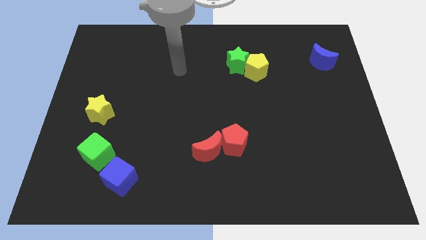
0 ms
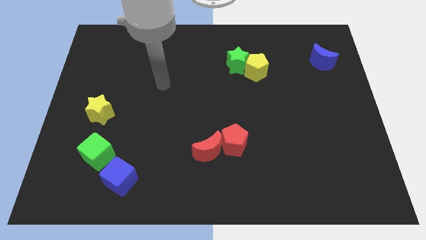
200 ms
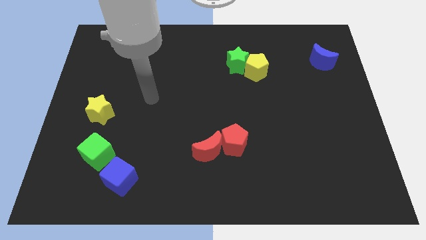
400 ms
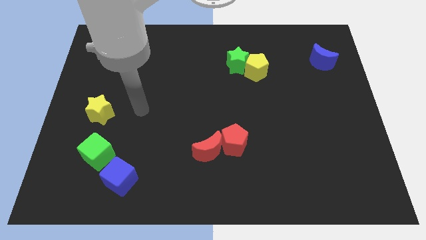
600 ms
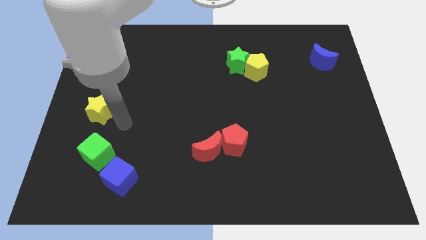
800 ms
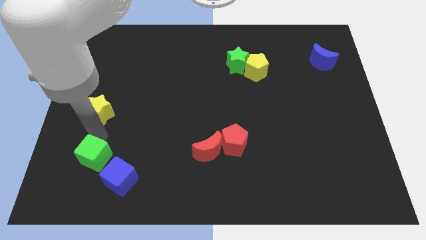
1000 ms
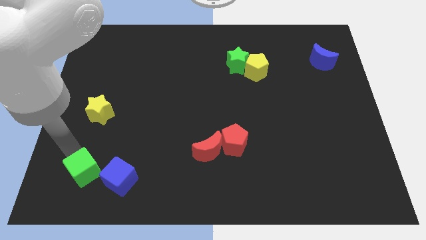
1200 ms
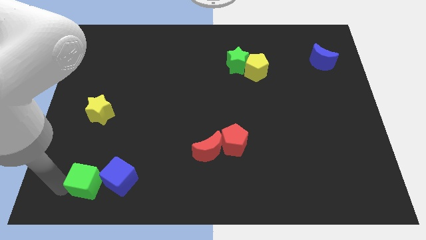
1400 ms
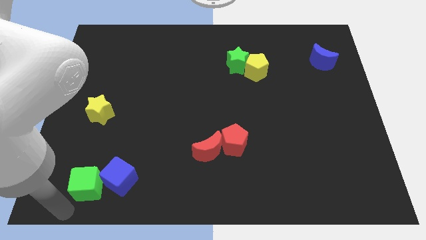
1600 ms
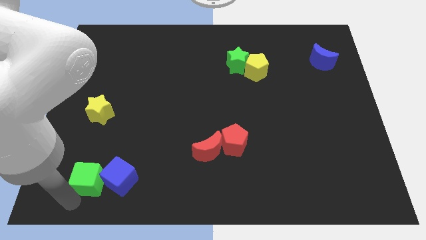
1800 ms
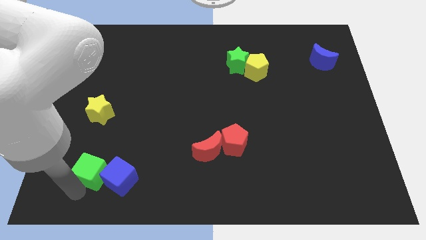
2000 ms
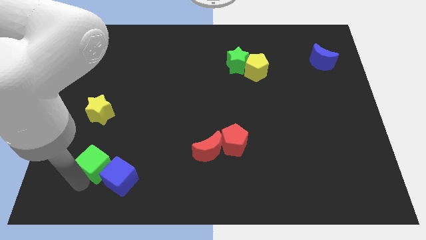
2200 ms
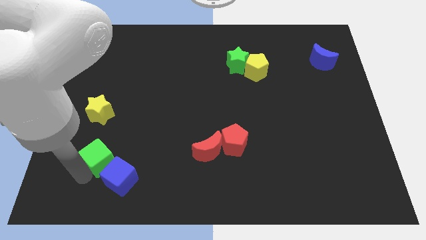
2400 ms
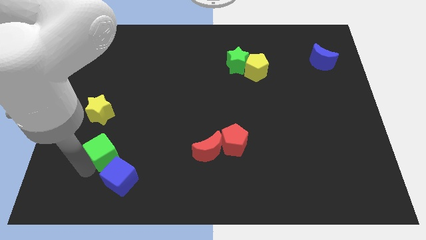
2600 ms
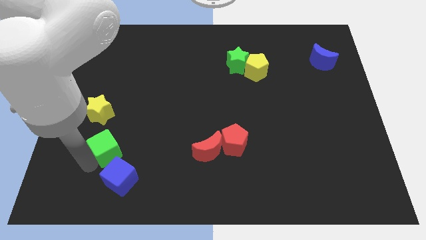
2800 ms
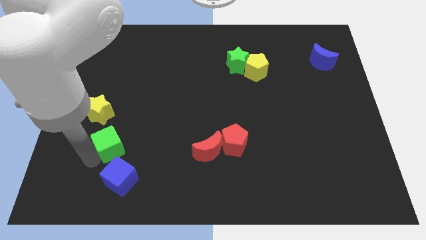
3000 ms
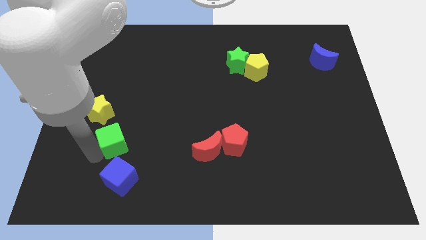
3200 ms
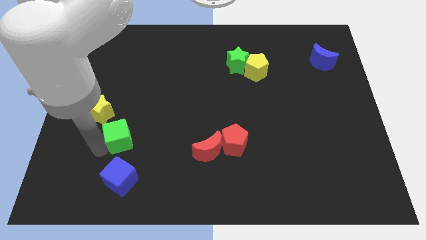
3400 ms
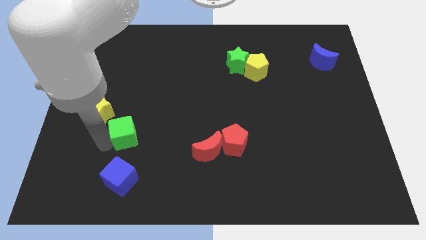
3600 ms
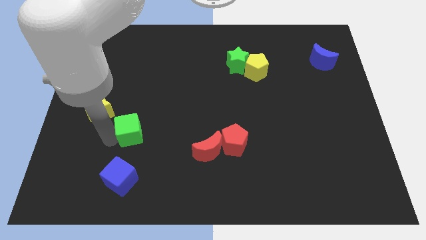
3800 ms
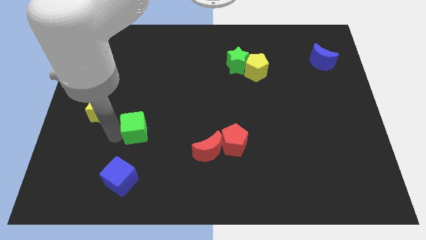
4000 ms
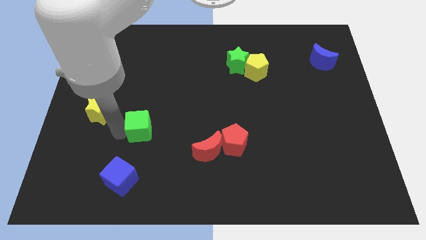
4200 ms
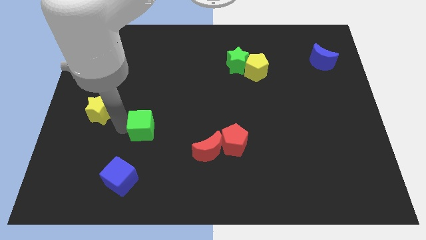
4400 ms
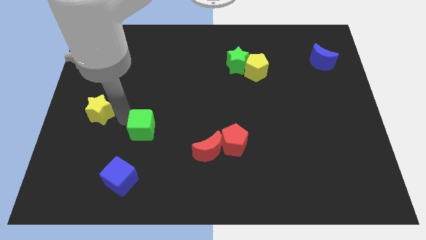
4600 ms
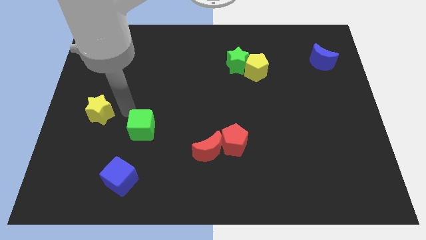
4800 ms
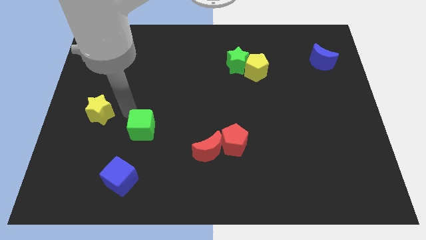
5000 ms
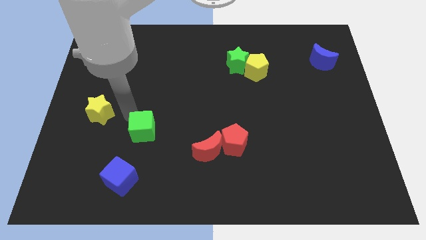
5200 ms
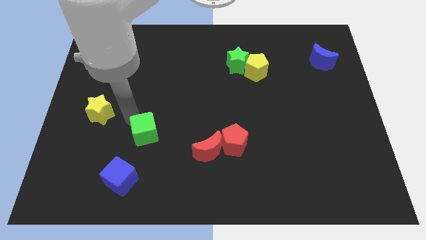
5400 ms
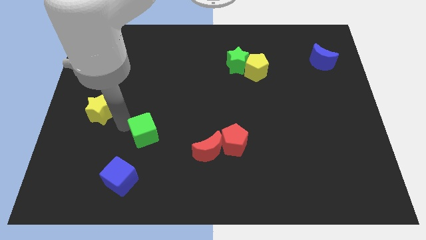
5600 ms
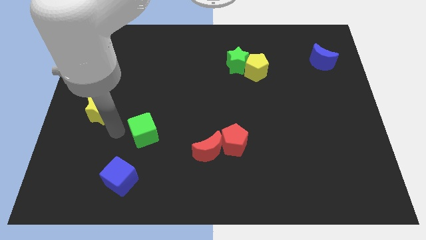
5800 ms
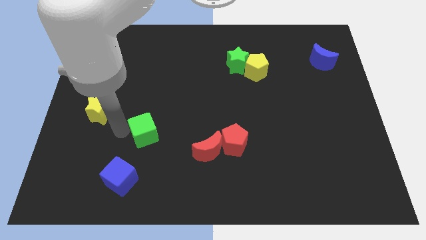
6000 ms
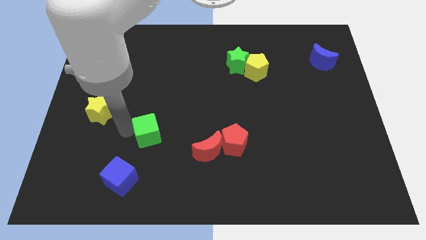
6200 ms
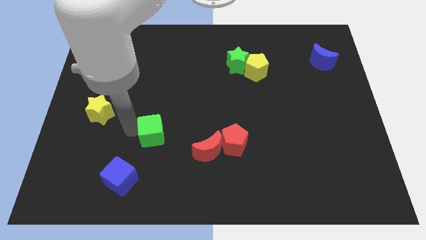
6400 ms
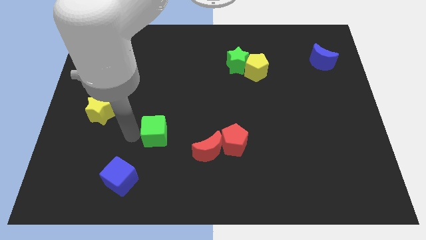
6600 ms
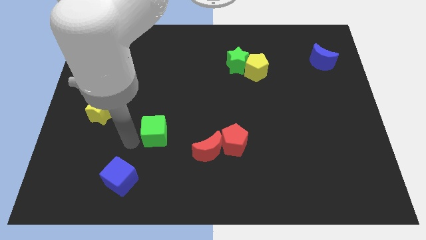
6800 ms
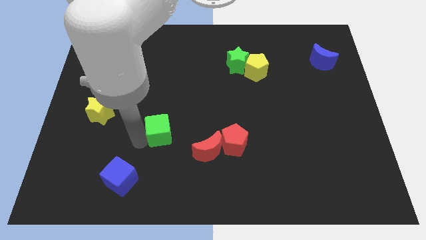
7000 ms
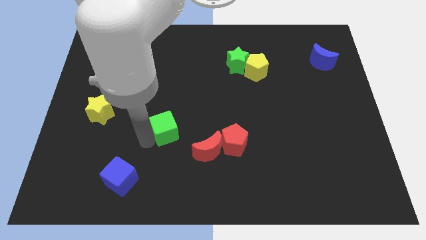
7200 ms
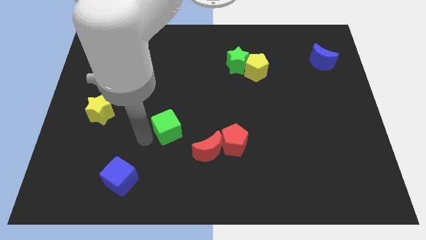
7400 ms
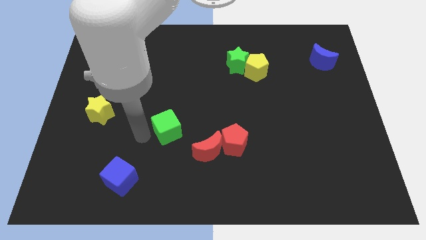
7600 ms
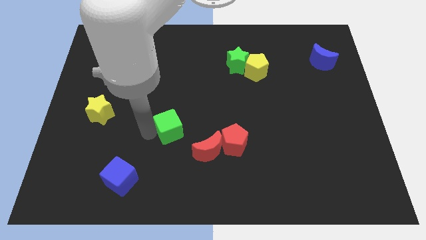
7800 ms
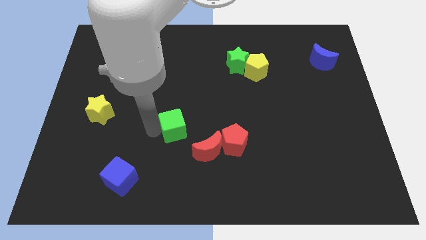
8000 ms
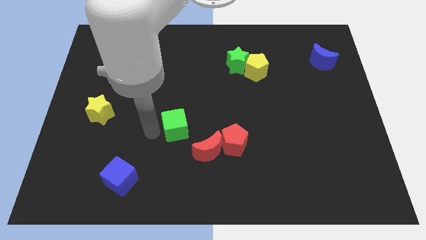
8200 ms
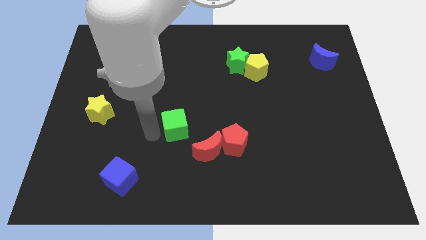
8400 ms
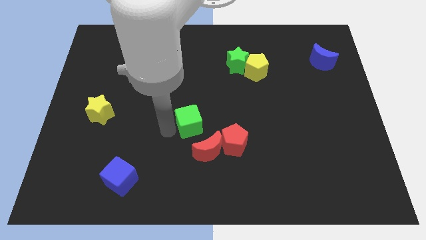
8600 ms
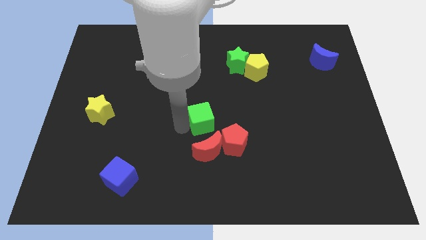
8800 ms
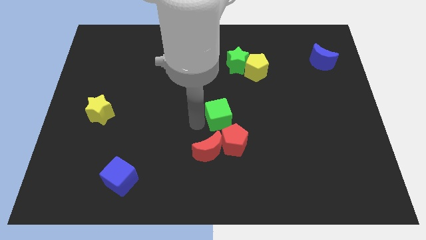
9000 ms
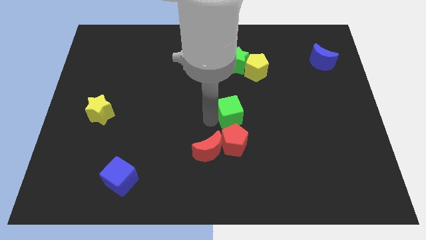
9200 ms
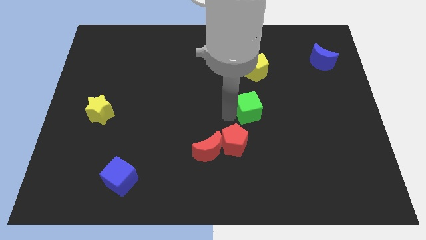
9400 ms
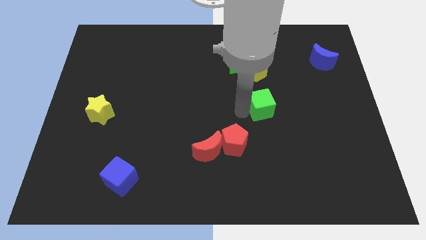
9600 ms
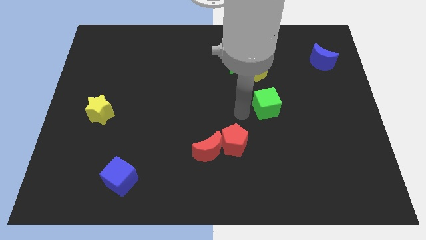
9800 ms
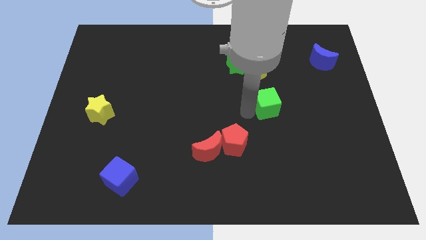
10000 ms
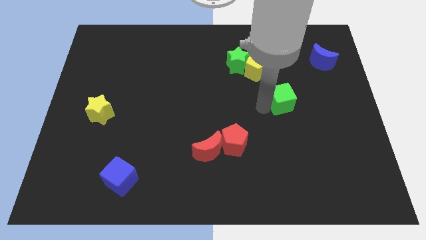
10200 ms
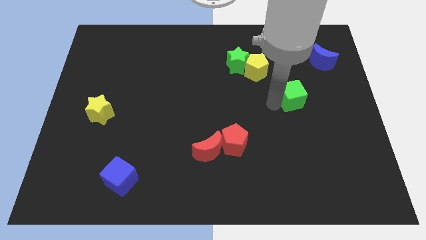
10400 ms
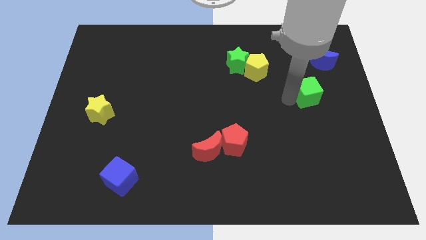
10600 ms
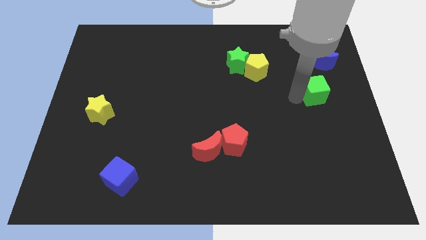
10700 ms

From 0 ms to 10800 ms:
put the green cube to the bottom side of the blue moon

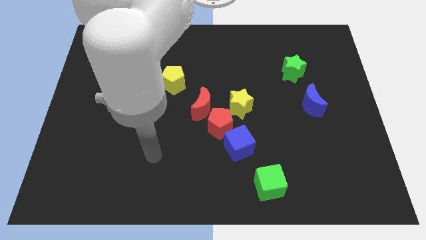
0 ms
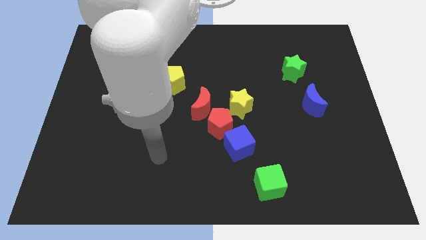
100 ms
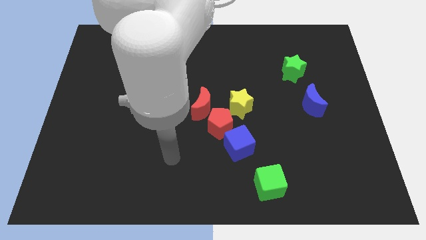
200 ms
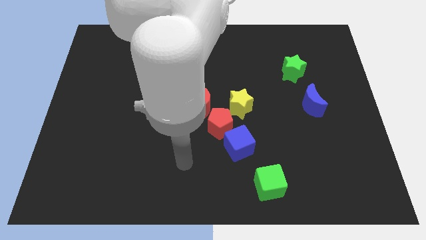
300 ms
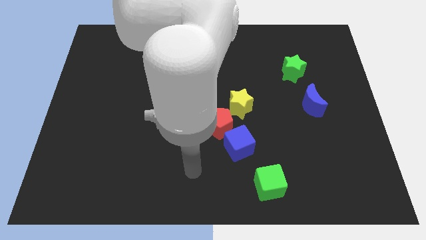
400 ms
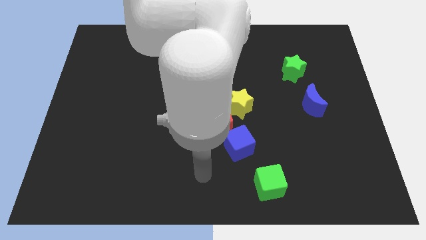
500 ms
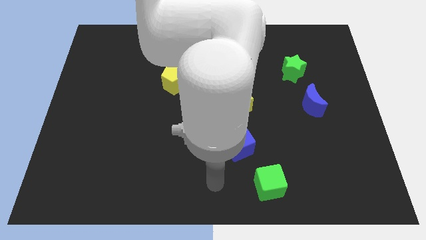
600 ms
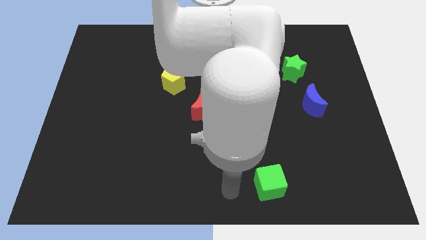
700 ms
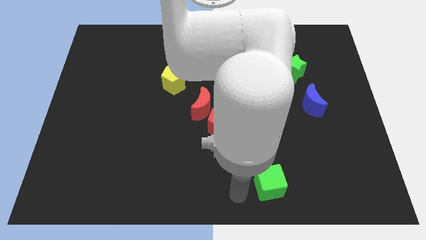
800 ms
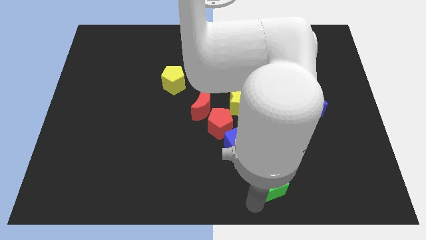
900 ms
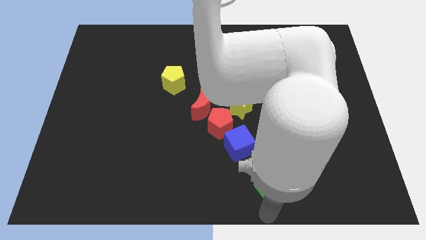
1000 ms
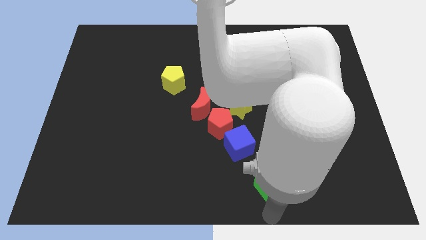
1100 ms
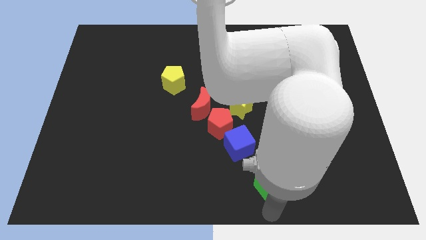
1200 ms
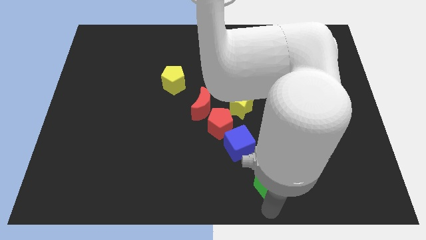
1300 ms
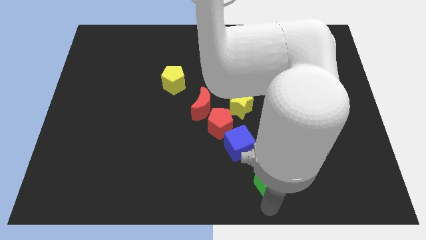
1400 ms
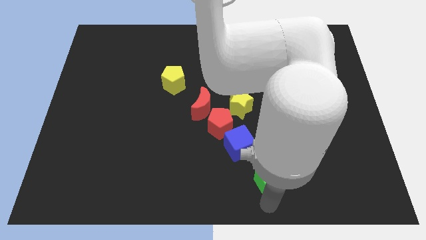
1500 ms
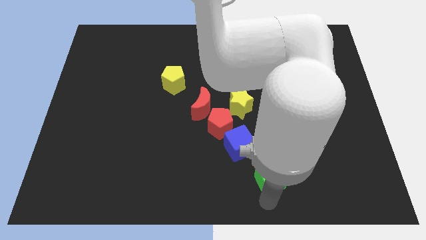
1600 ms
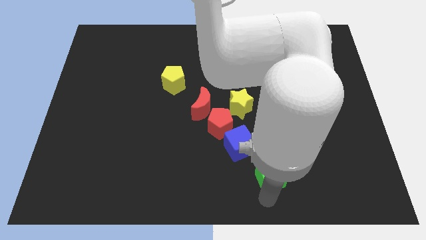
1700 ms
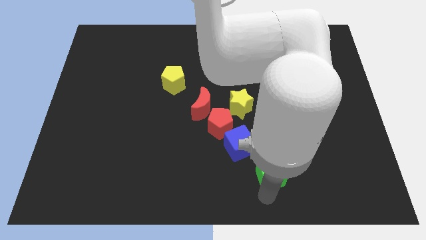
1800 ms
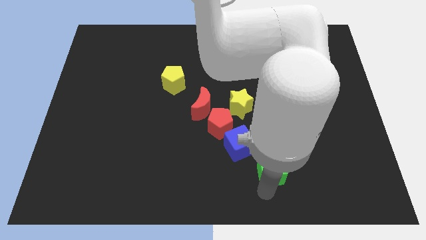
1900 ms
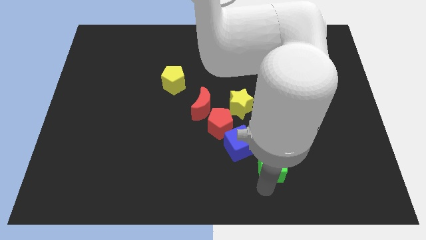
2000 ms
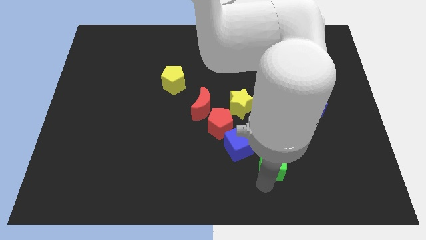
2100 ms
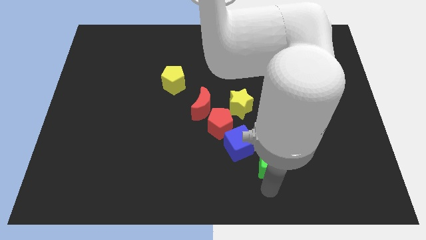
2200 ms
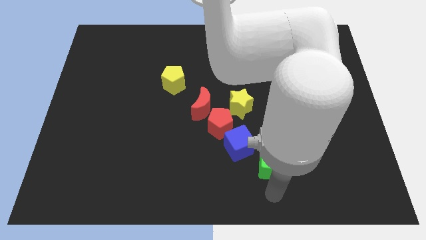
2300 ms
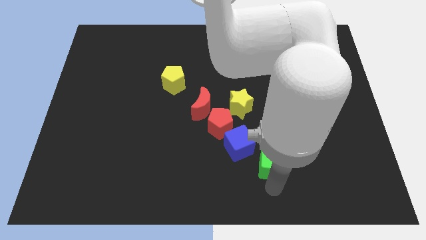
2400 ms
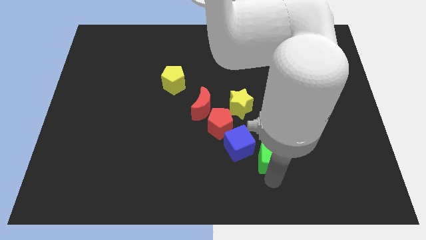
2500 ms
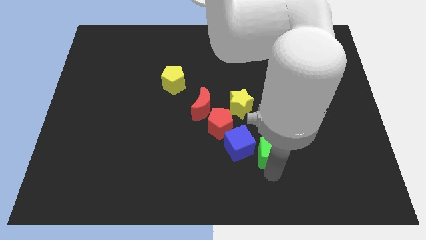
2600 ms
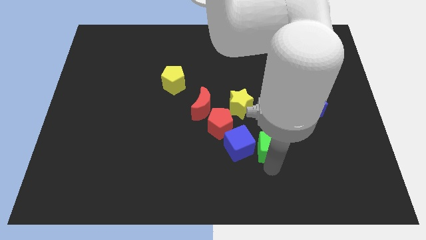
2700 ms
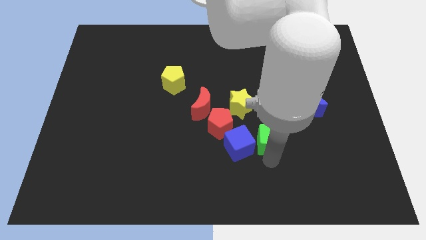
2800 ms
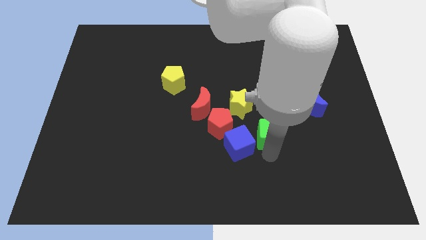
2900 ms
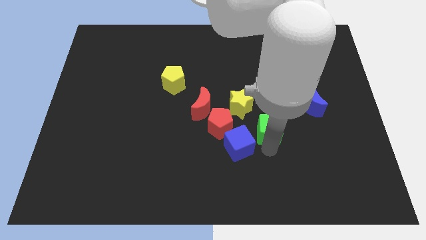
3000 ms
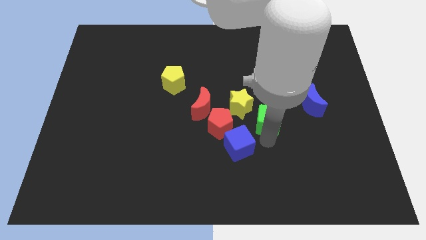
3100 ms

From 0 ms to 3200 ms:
move the green cube just right of the yellow star
